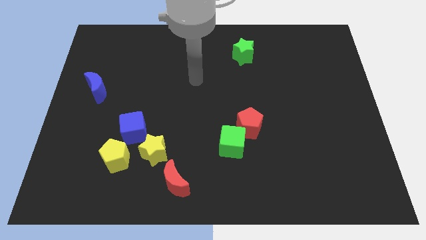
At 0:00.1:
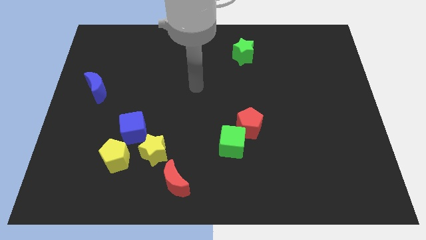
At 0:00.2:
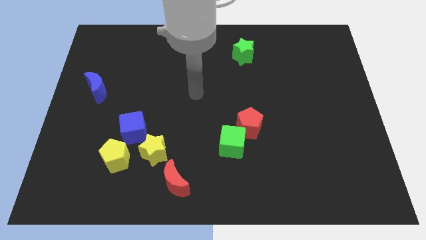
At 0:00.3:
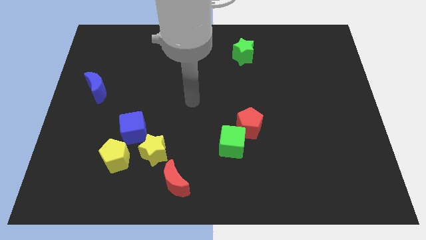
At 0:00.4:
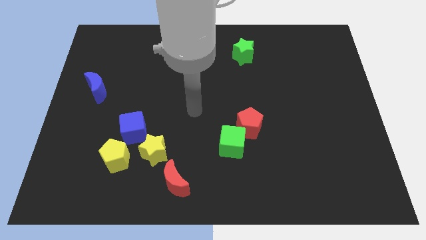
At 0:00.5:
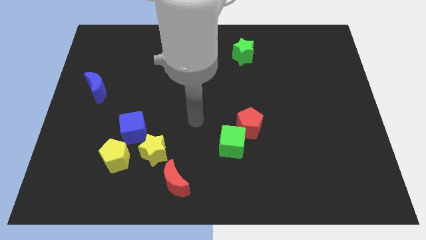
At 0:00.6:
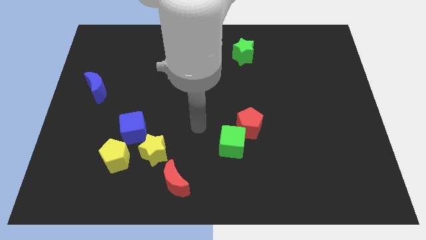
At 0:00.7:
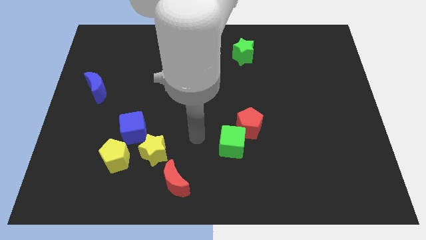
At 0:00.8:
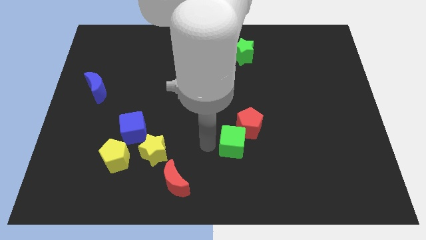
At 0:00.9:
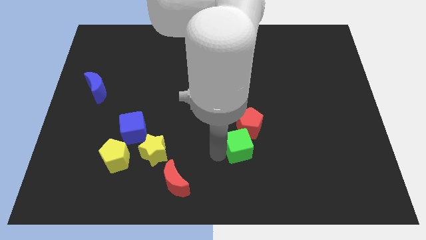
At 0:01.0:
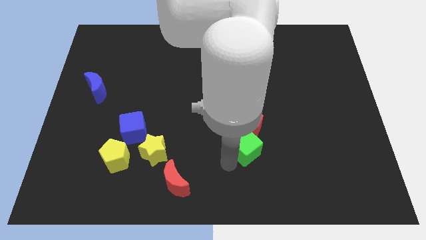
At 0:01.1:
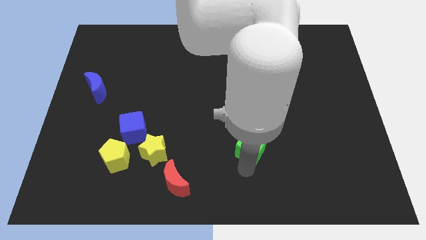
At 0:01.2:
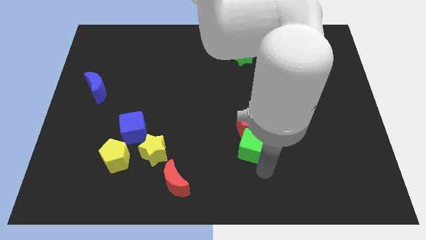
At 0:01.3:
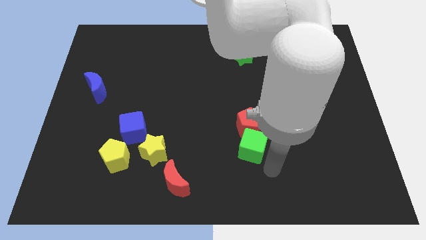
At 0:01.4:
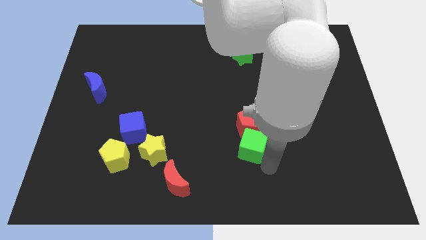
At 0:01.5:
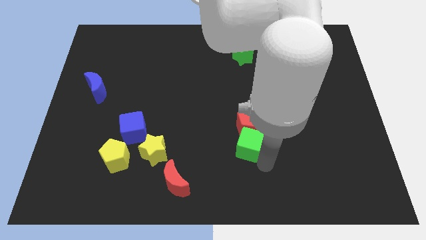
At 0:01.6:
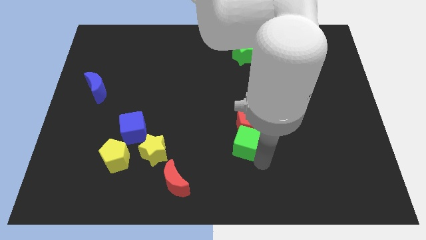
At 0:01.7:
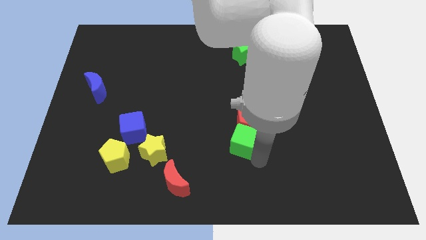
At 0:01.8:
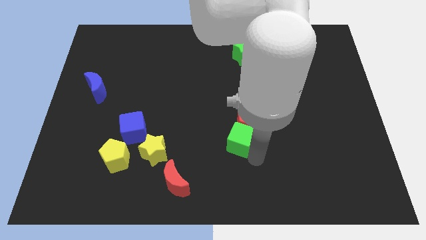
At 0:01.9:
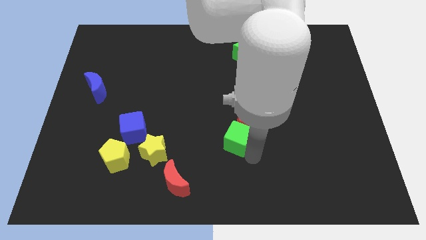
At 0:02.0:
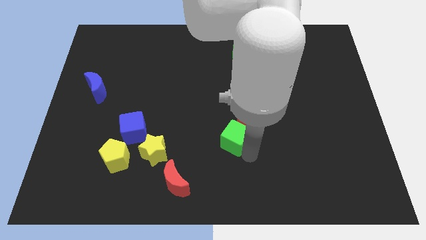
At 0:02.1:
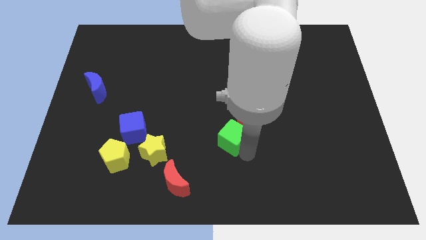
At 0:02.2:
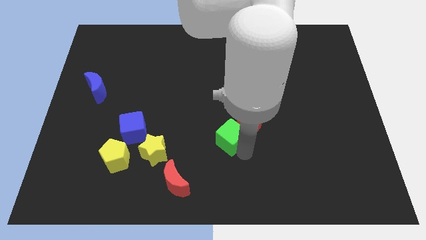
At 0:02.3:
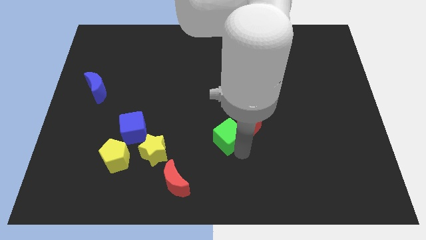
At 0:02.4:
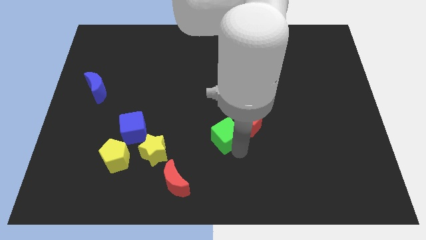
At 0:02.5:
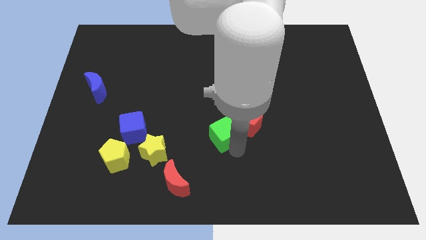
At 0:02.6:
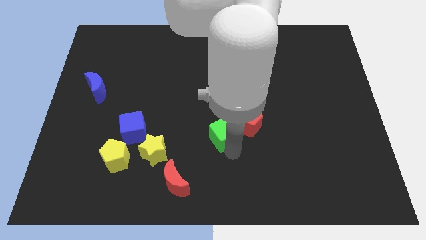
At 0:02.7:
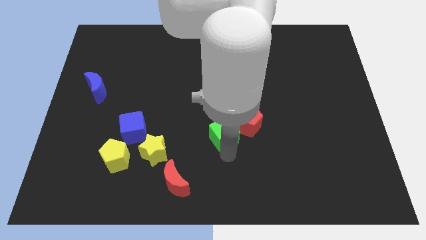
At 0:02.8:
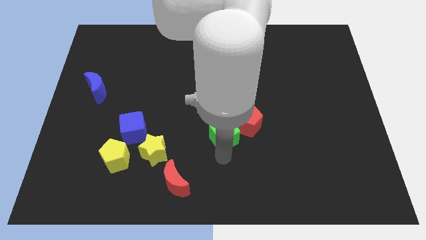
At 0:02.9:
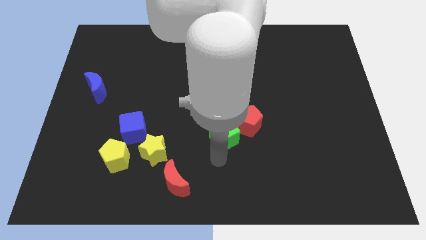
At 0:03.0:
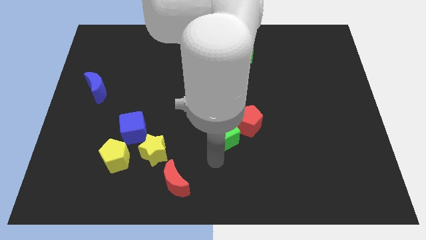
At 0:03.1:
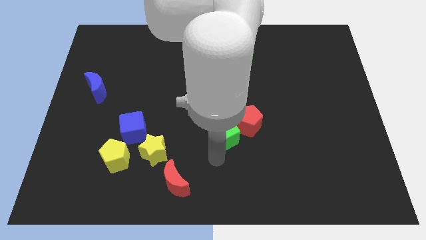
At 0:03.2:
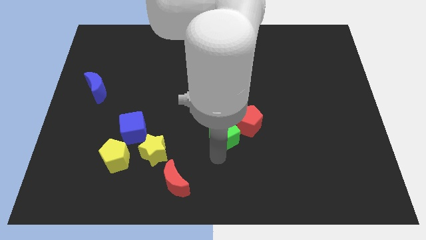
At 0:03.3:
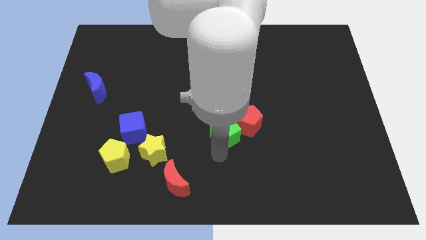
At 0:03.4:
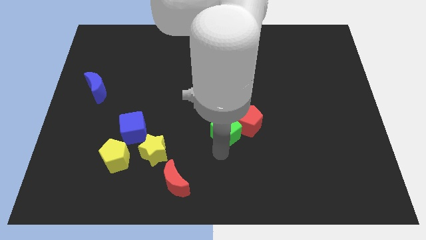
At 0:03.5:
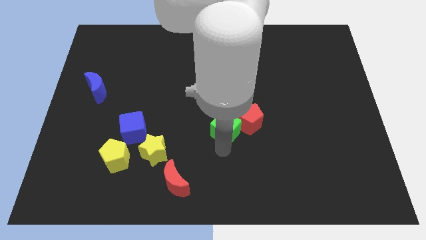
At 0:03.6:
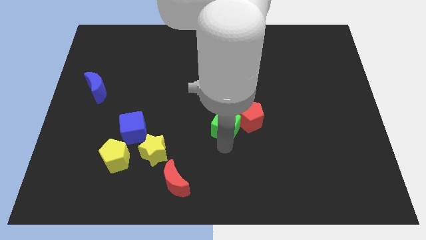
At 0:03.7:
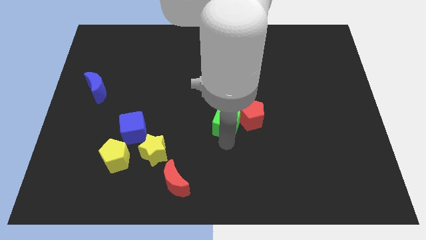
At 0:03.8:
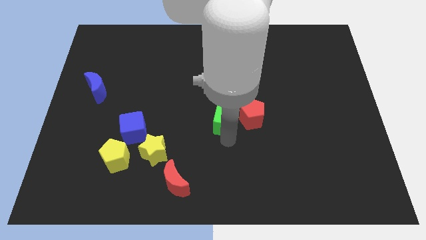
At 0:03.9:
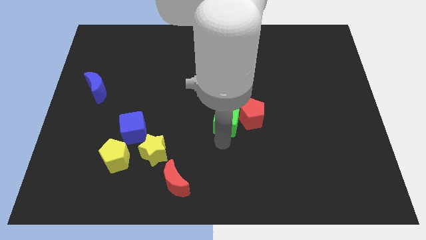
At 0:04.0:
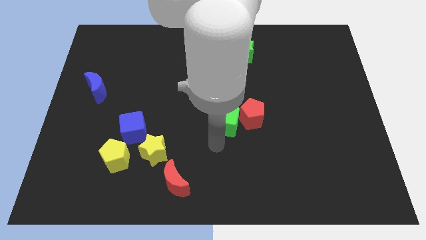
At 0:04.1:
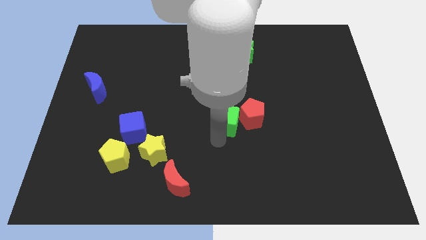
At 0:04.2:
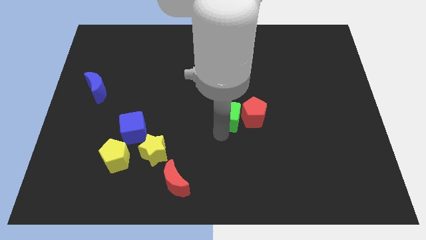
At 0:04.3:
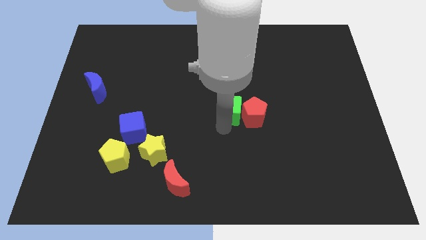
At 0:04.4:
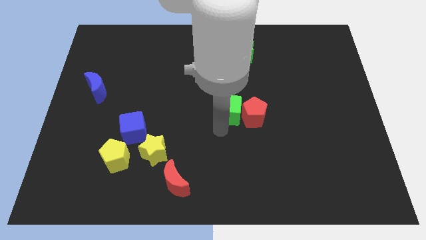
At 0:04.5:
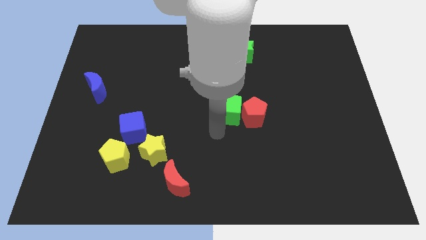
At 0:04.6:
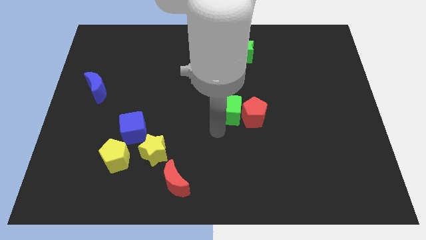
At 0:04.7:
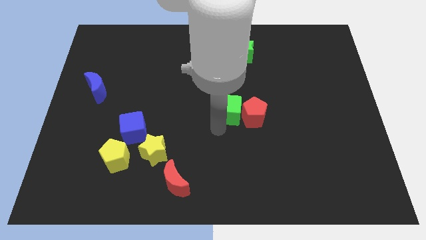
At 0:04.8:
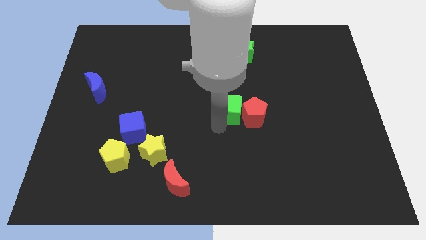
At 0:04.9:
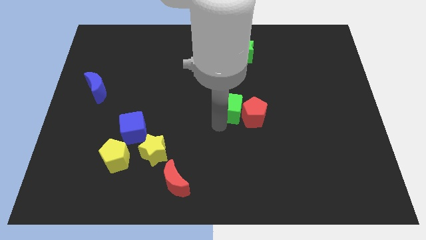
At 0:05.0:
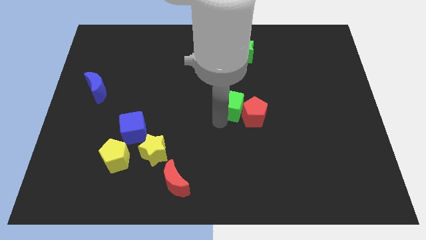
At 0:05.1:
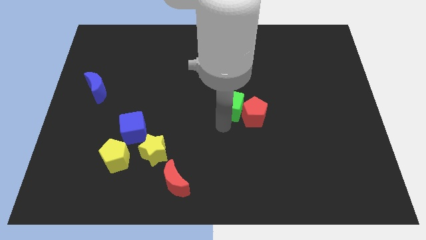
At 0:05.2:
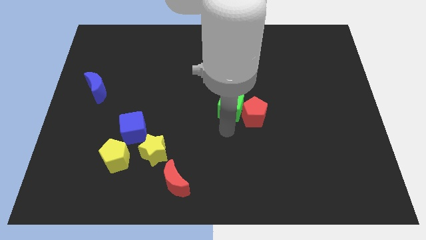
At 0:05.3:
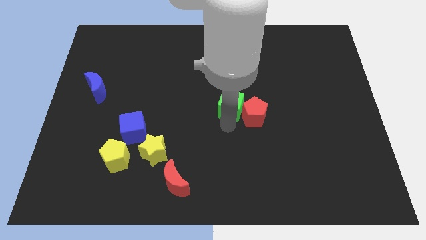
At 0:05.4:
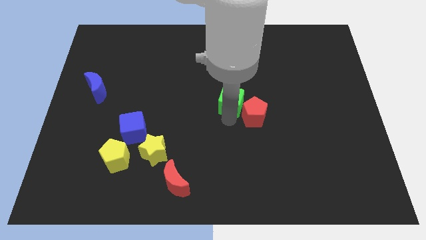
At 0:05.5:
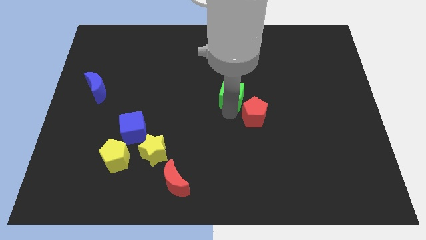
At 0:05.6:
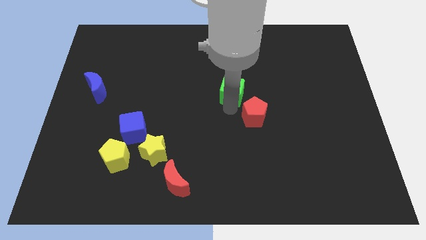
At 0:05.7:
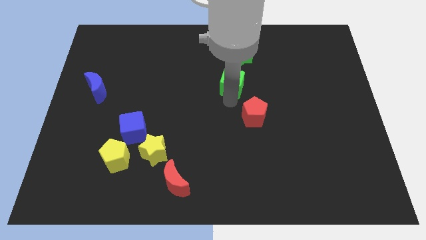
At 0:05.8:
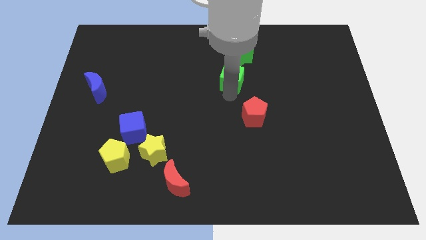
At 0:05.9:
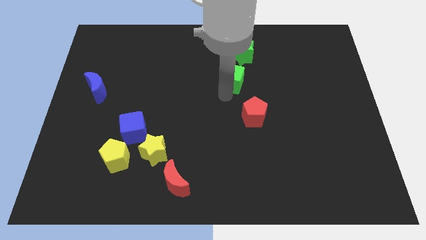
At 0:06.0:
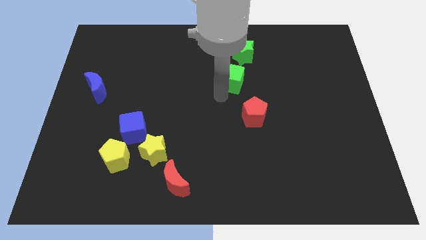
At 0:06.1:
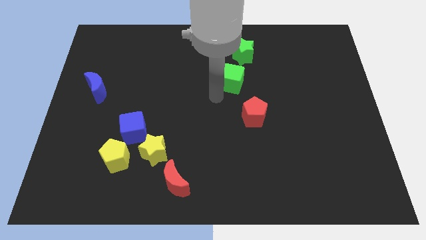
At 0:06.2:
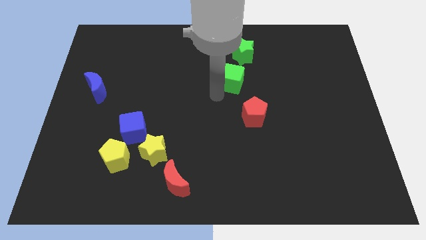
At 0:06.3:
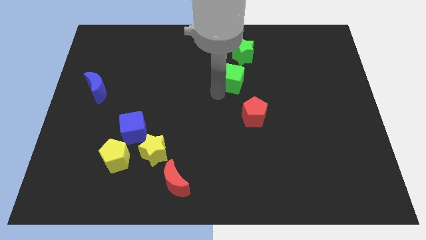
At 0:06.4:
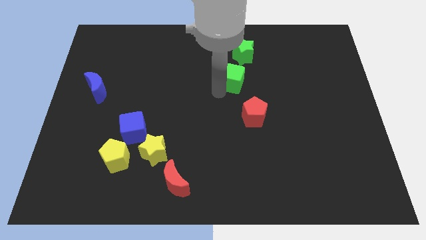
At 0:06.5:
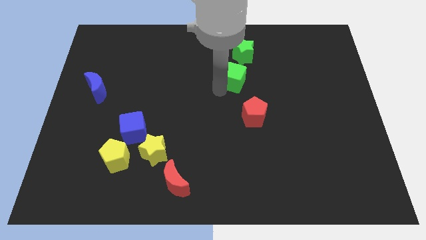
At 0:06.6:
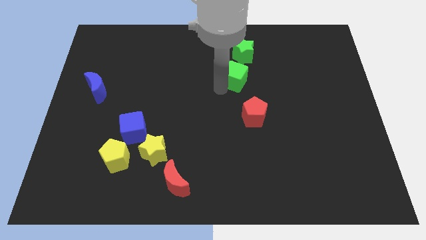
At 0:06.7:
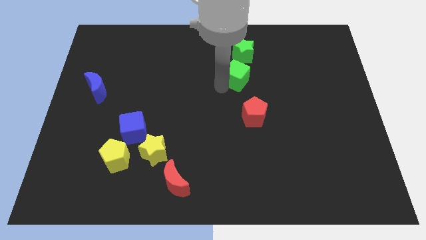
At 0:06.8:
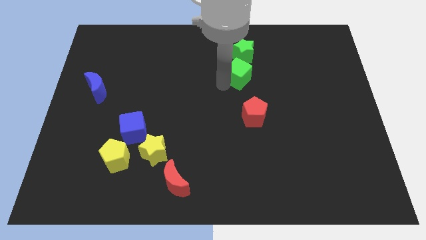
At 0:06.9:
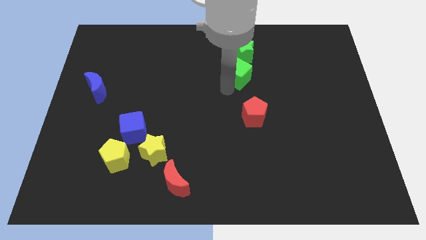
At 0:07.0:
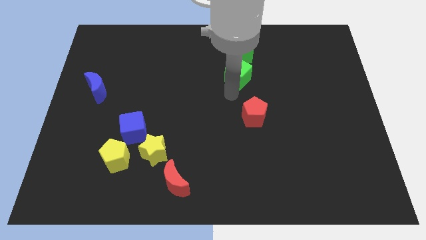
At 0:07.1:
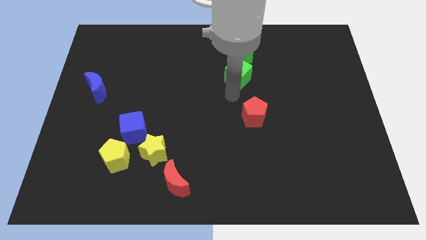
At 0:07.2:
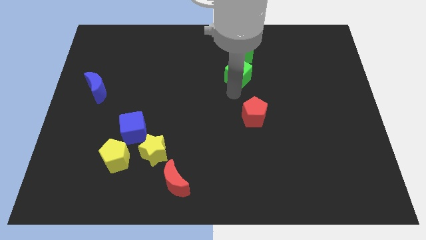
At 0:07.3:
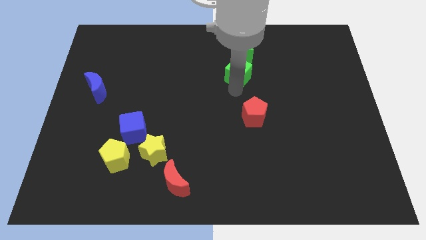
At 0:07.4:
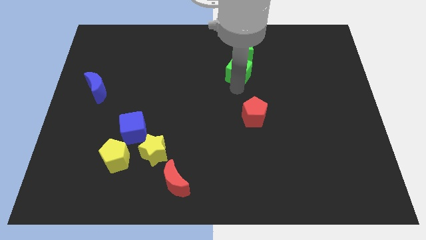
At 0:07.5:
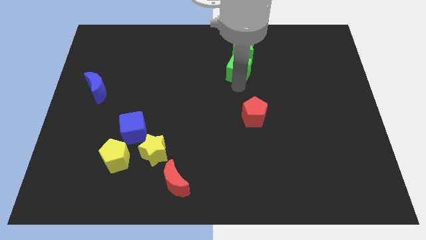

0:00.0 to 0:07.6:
put the green cube towards the green star
